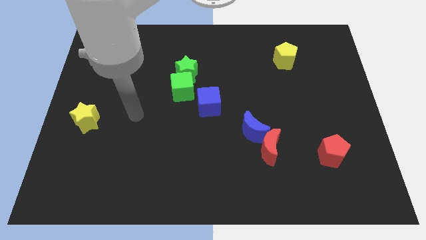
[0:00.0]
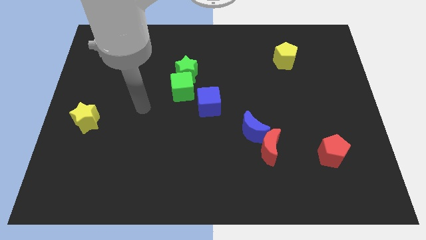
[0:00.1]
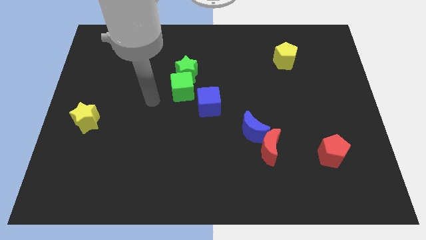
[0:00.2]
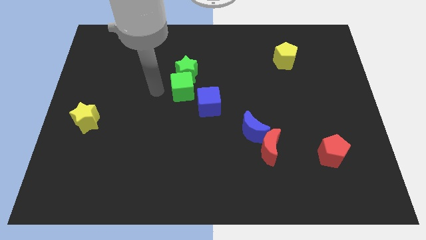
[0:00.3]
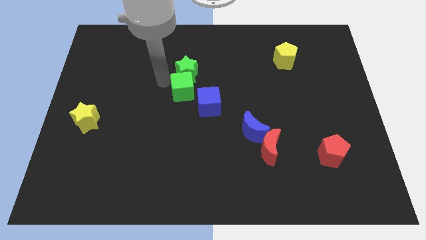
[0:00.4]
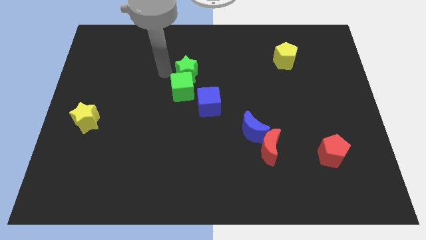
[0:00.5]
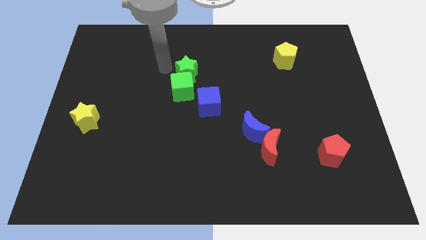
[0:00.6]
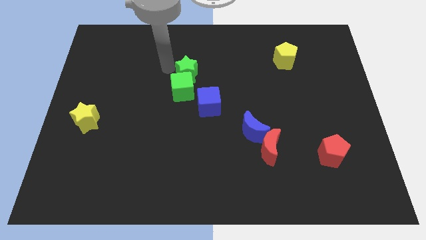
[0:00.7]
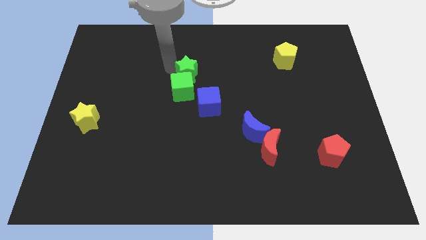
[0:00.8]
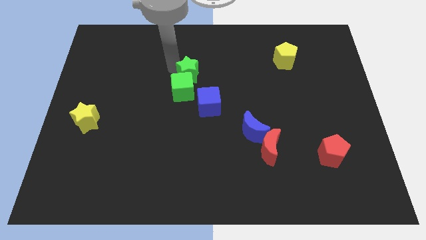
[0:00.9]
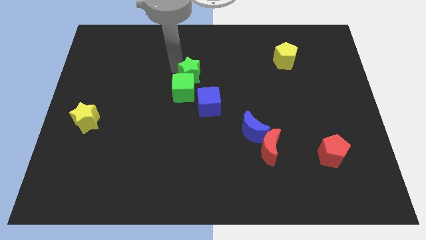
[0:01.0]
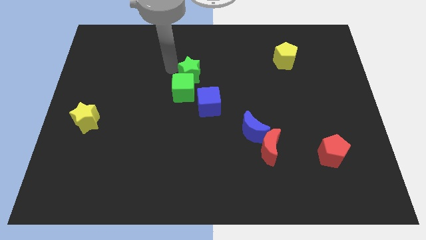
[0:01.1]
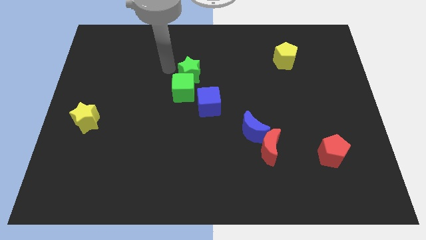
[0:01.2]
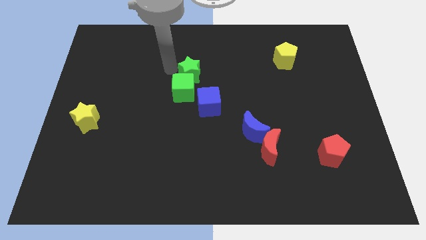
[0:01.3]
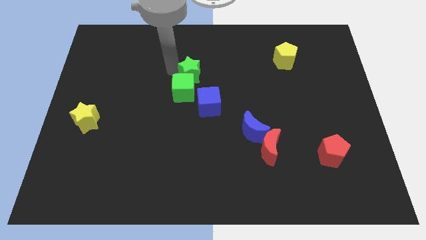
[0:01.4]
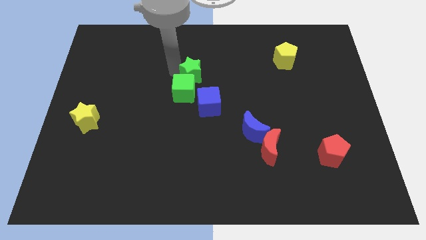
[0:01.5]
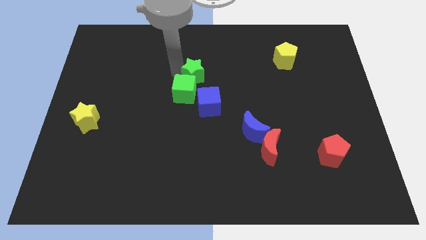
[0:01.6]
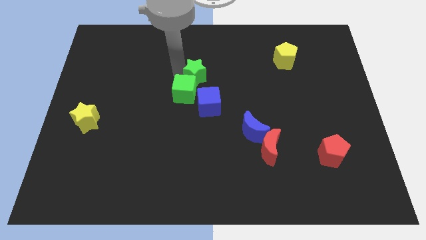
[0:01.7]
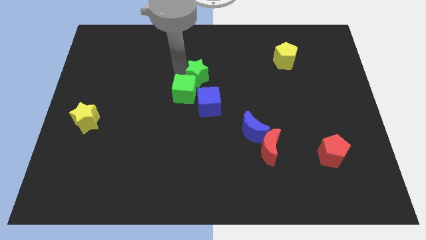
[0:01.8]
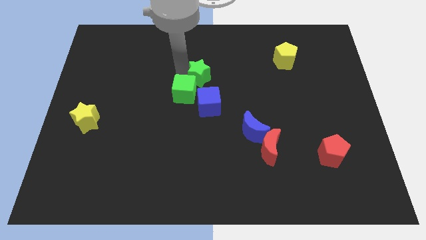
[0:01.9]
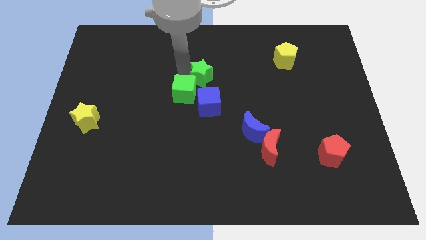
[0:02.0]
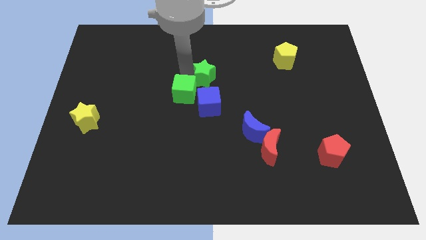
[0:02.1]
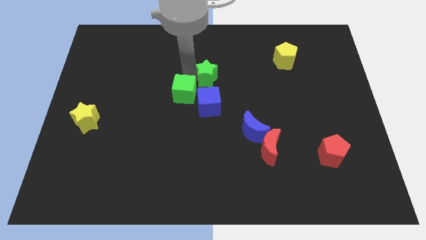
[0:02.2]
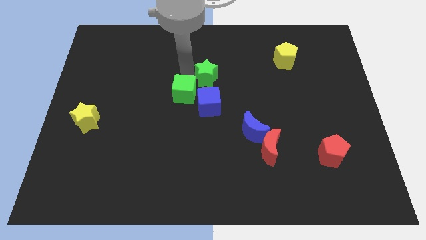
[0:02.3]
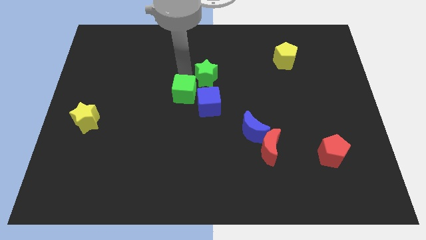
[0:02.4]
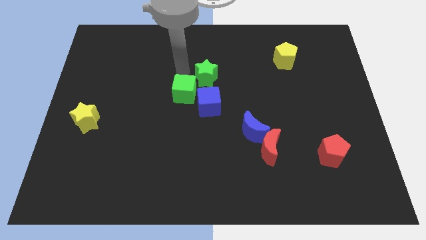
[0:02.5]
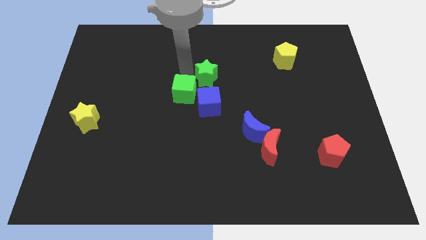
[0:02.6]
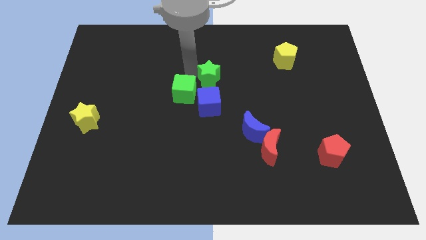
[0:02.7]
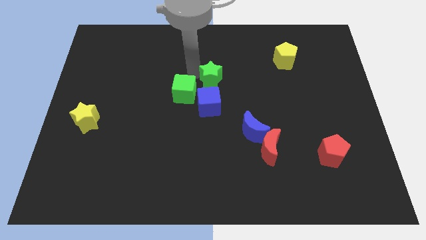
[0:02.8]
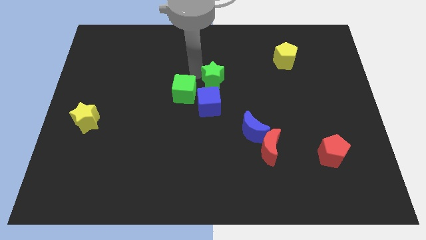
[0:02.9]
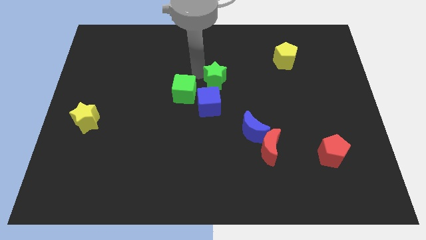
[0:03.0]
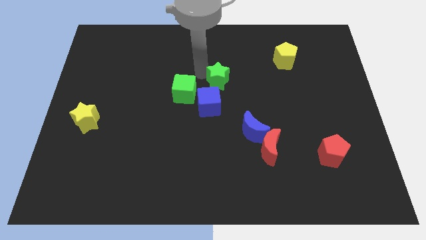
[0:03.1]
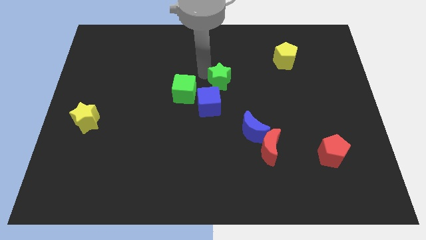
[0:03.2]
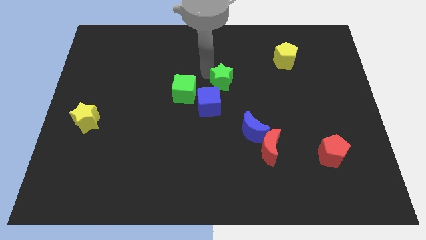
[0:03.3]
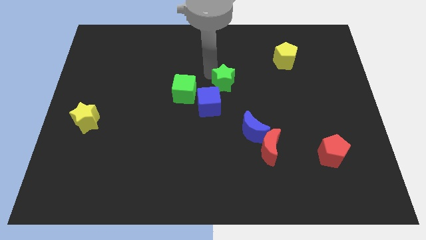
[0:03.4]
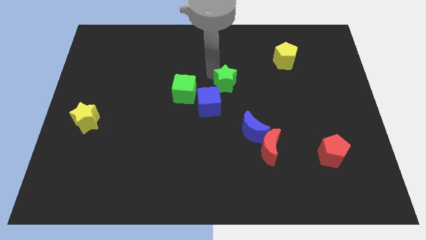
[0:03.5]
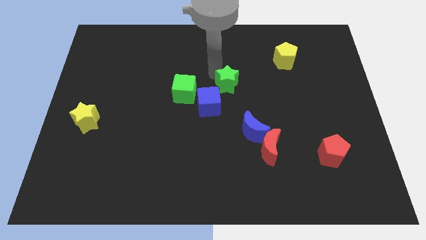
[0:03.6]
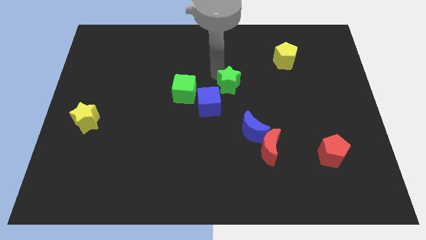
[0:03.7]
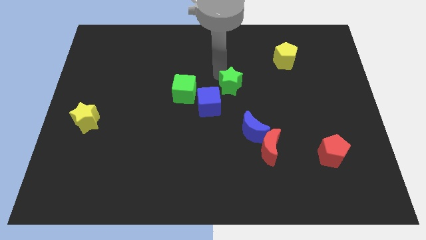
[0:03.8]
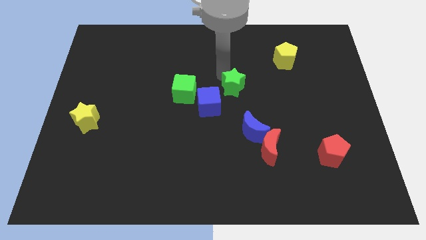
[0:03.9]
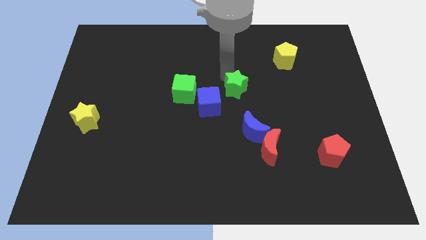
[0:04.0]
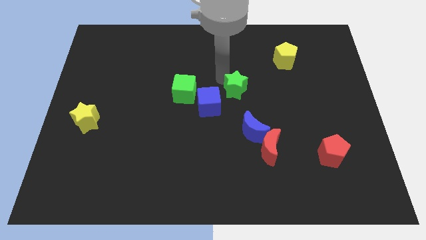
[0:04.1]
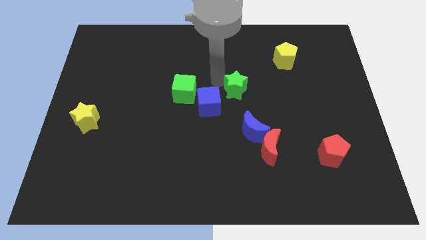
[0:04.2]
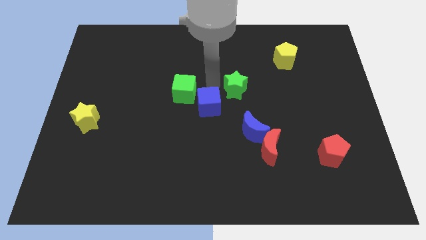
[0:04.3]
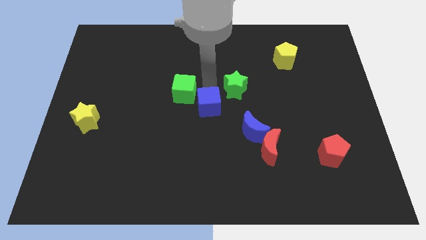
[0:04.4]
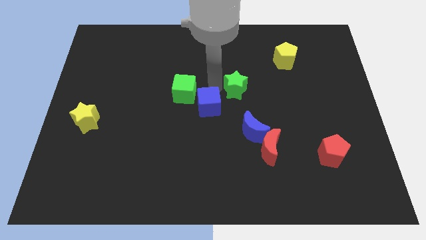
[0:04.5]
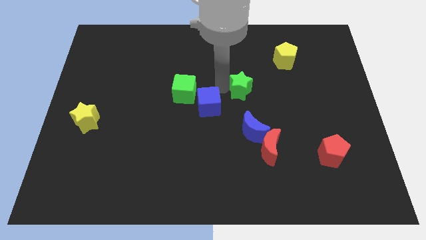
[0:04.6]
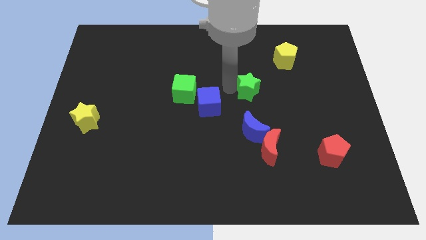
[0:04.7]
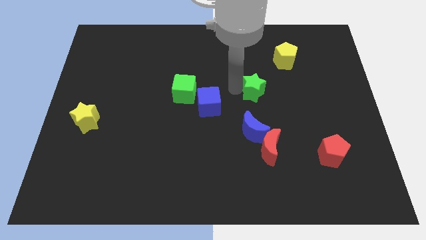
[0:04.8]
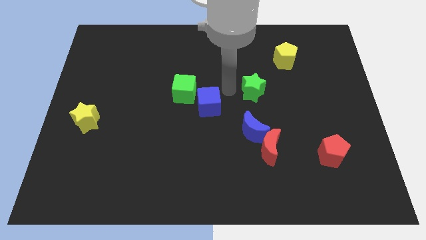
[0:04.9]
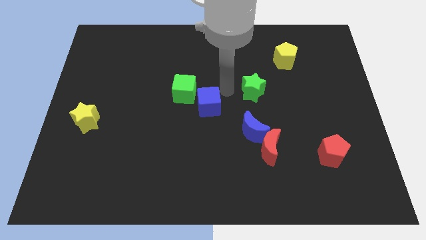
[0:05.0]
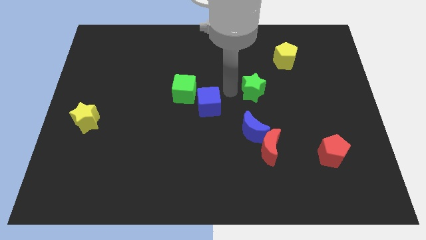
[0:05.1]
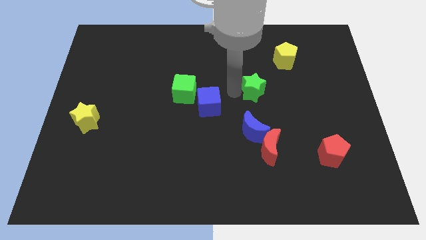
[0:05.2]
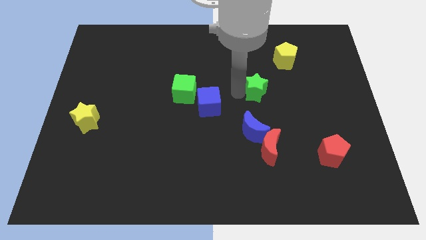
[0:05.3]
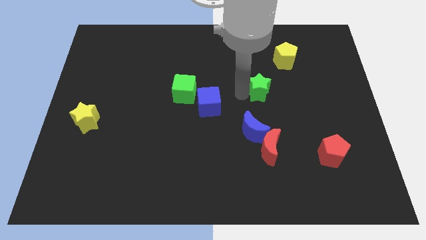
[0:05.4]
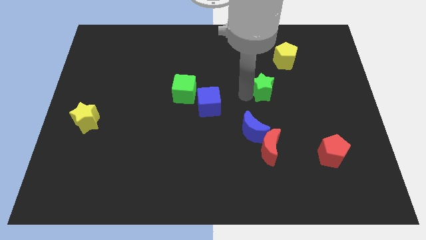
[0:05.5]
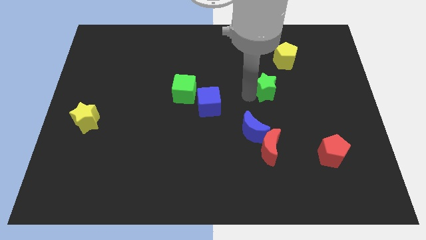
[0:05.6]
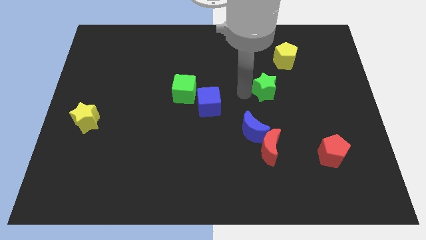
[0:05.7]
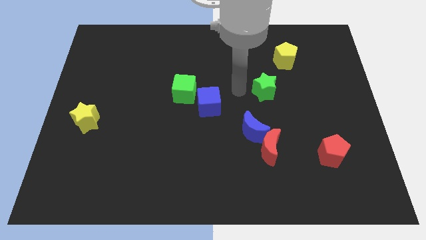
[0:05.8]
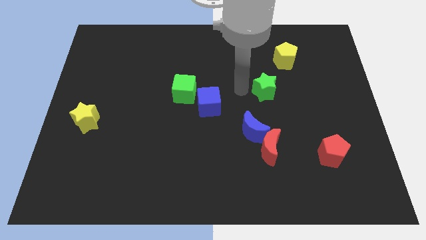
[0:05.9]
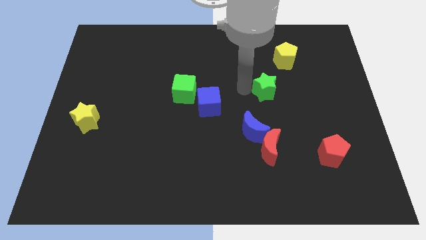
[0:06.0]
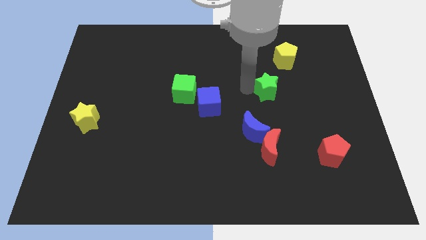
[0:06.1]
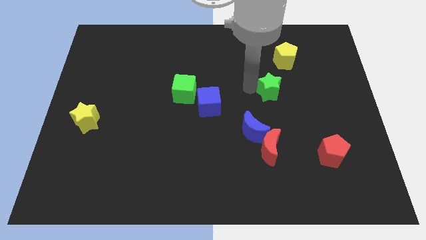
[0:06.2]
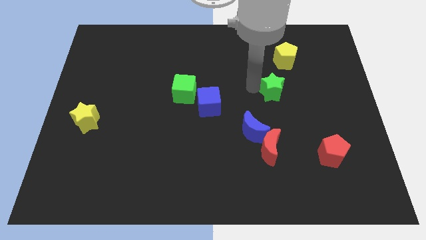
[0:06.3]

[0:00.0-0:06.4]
move the green star to the bottom of the yellow pentagon

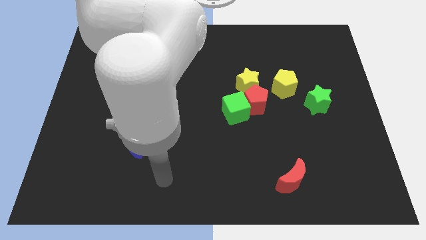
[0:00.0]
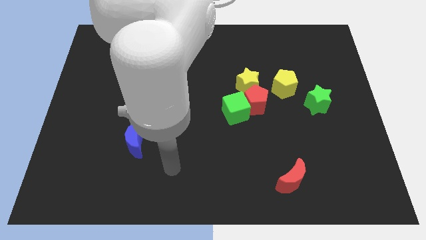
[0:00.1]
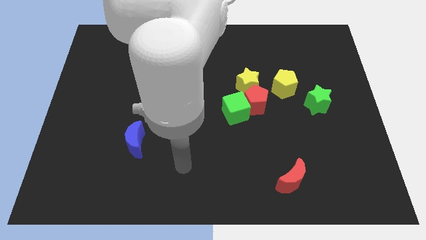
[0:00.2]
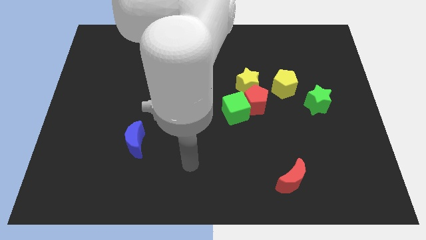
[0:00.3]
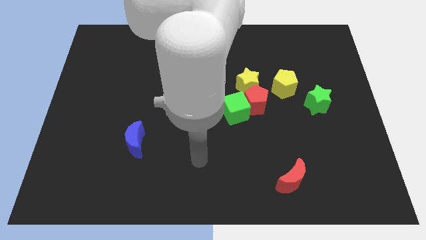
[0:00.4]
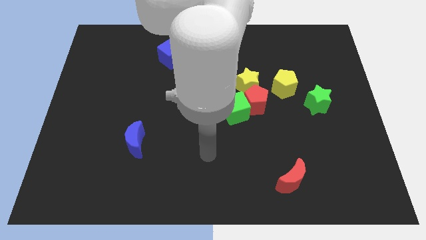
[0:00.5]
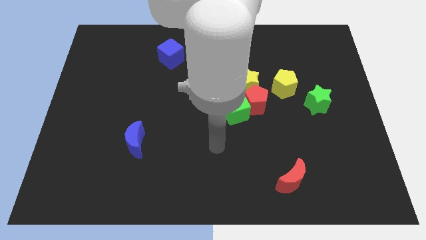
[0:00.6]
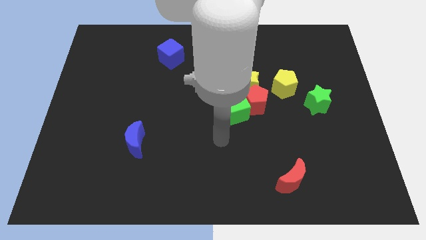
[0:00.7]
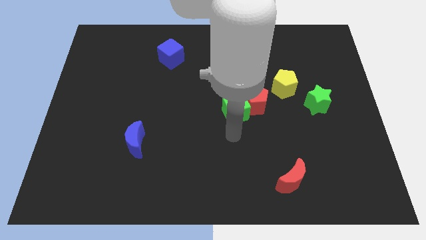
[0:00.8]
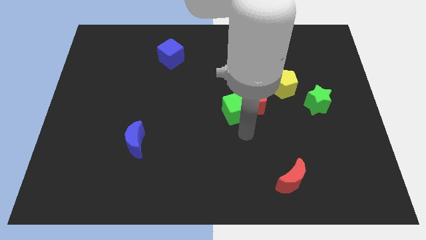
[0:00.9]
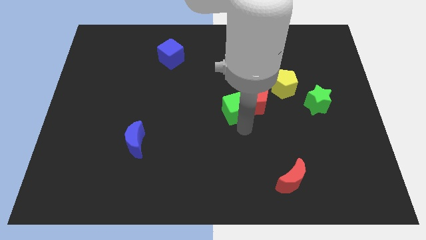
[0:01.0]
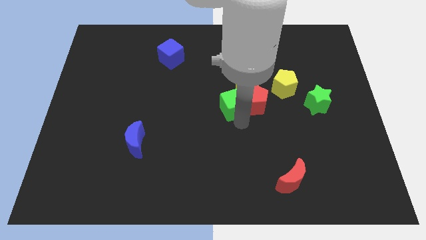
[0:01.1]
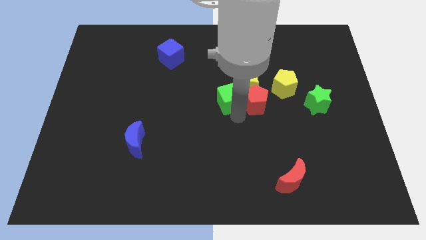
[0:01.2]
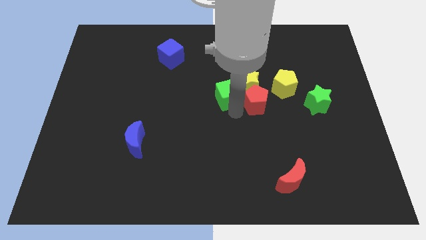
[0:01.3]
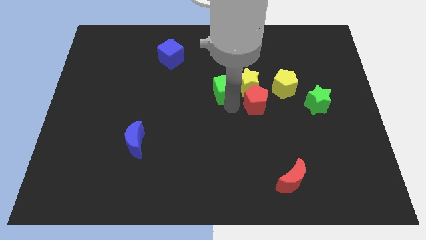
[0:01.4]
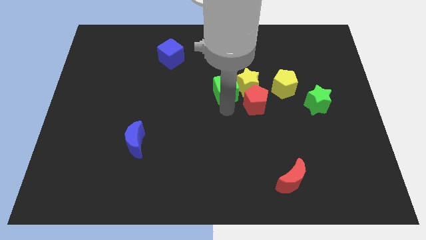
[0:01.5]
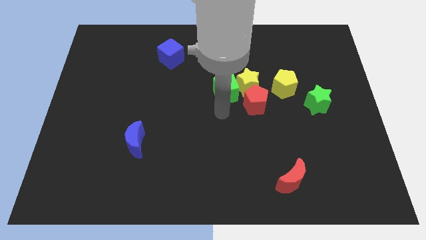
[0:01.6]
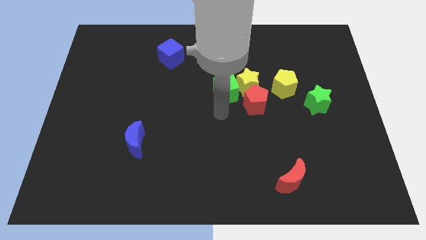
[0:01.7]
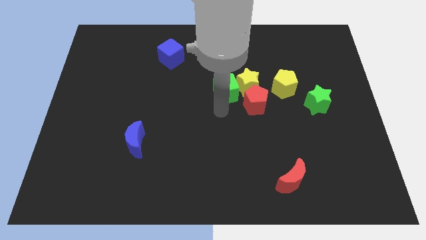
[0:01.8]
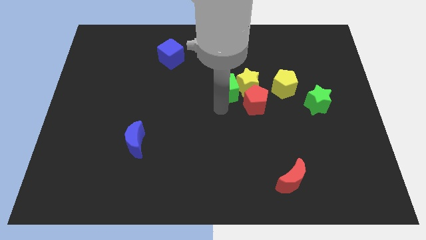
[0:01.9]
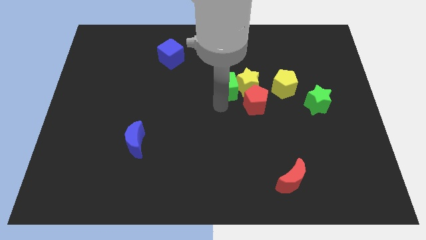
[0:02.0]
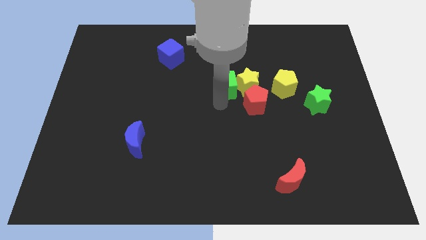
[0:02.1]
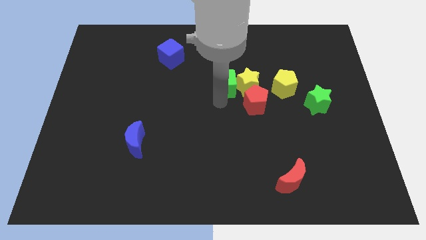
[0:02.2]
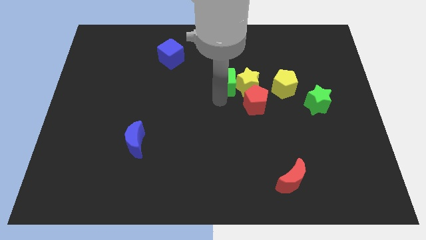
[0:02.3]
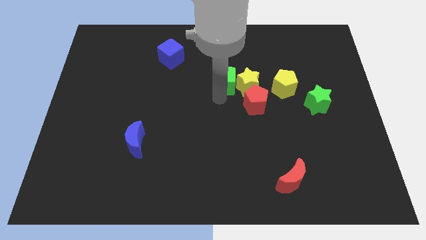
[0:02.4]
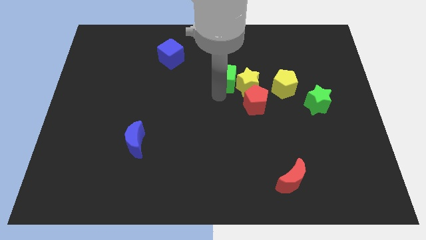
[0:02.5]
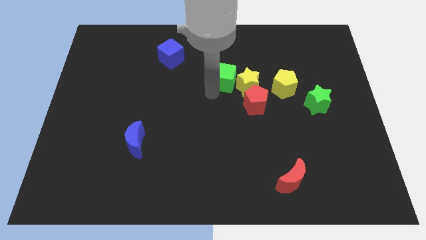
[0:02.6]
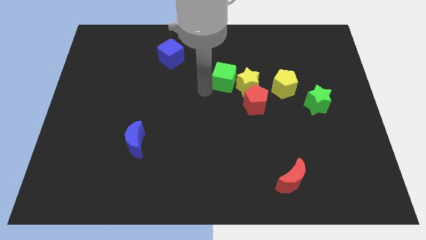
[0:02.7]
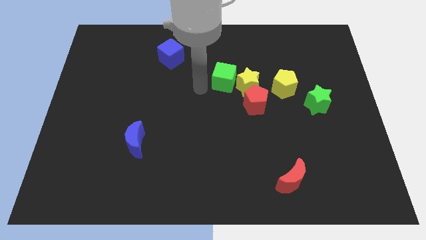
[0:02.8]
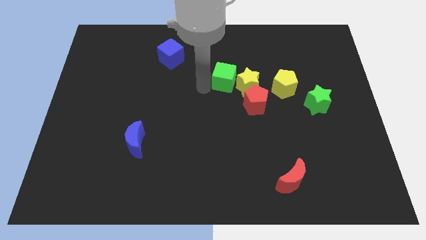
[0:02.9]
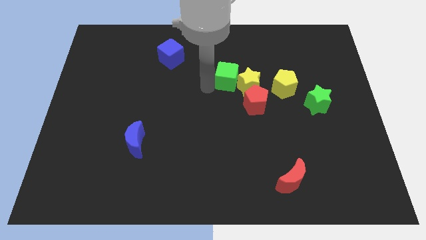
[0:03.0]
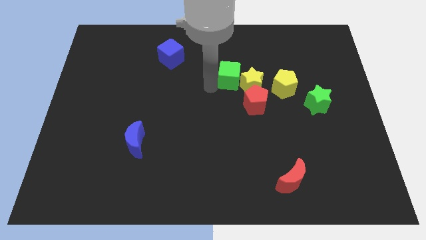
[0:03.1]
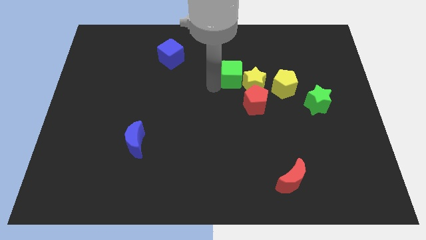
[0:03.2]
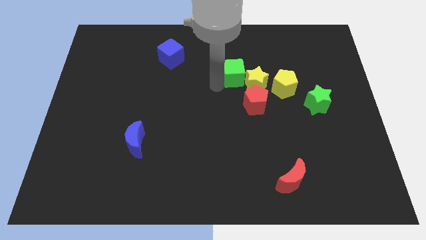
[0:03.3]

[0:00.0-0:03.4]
move the green cube to the top of the red pentagon
